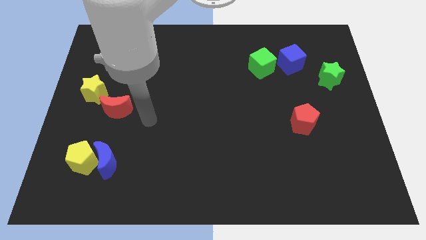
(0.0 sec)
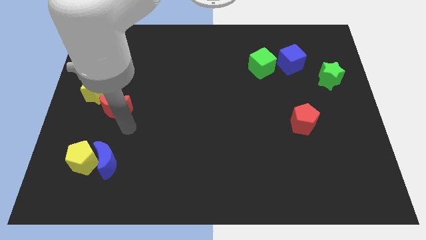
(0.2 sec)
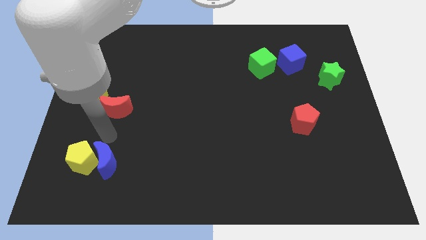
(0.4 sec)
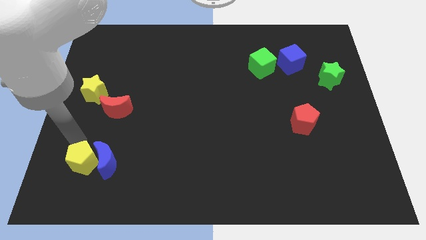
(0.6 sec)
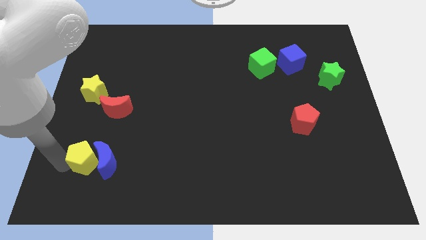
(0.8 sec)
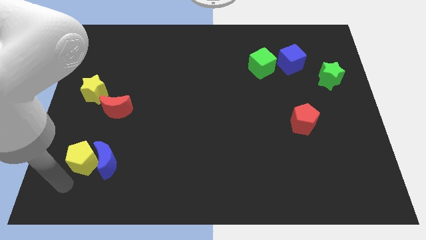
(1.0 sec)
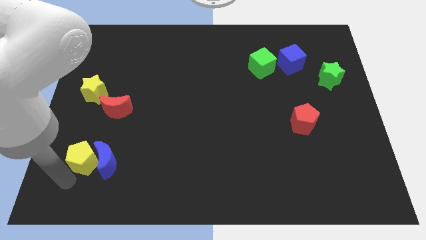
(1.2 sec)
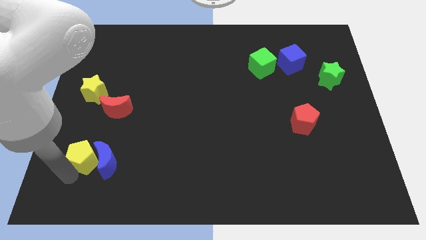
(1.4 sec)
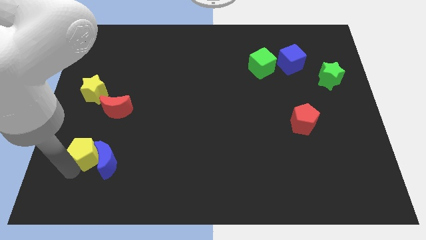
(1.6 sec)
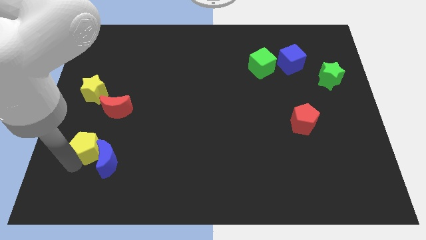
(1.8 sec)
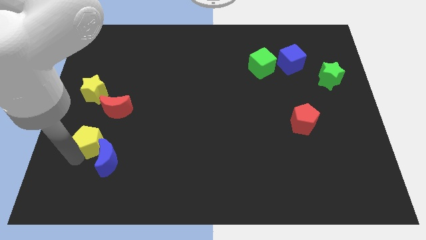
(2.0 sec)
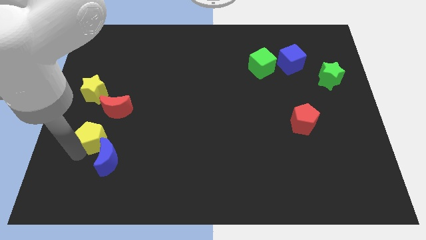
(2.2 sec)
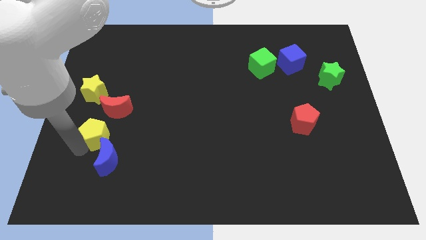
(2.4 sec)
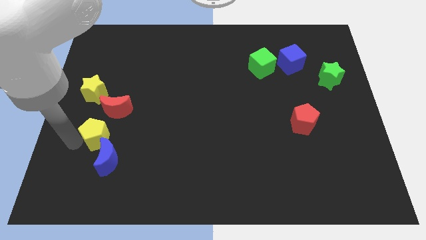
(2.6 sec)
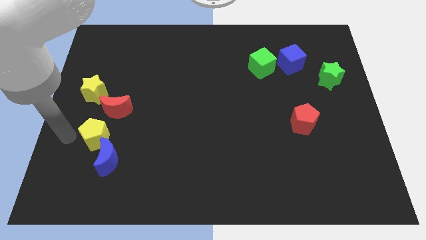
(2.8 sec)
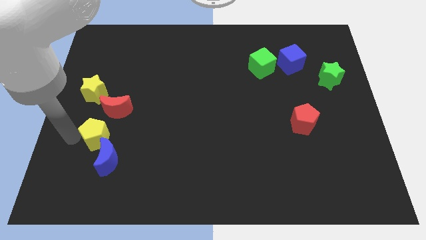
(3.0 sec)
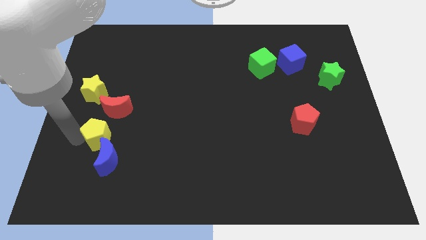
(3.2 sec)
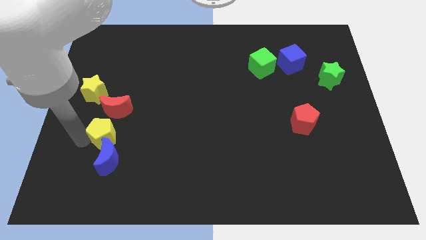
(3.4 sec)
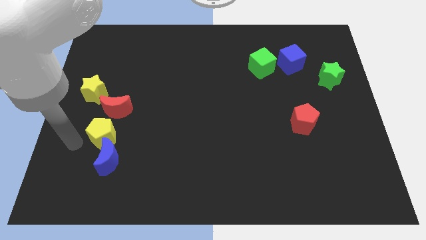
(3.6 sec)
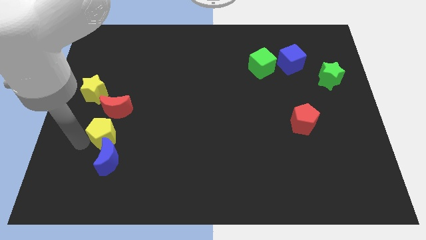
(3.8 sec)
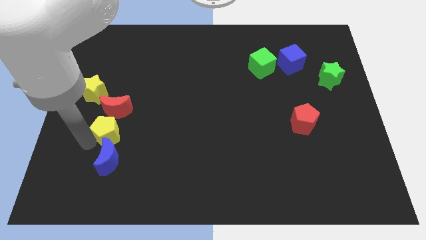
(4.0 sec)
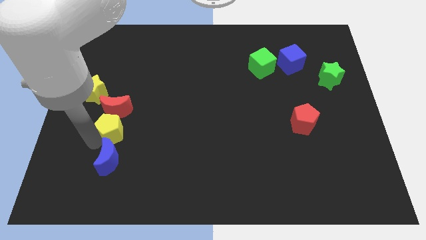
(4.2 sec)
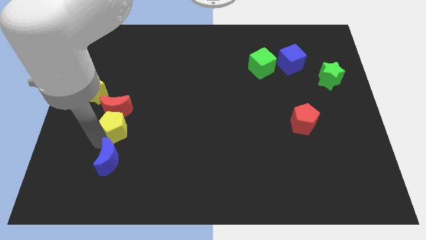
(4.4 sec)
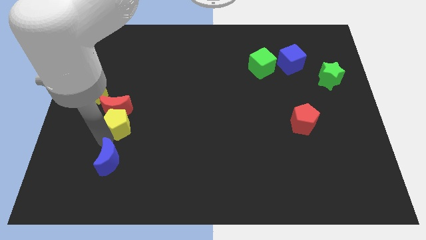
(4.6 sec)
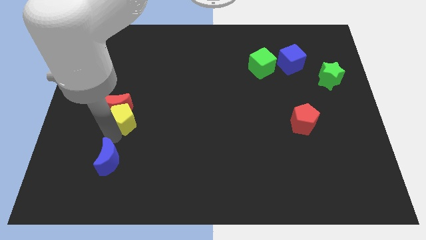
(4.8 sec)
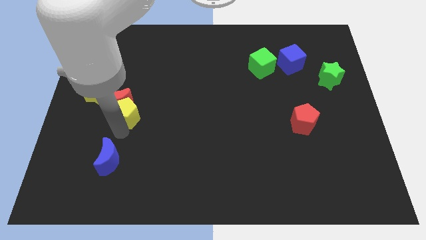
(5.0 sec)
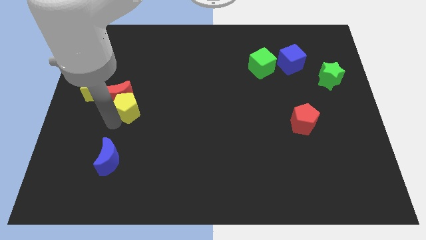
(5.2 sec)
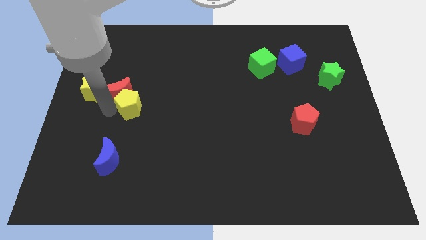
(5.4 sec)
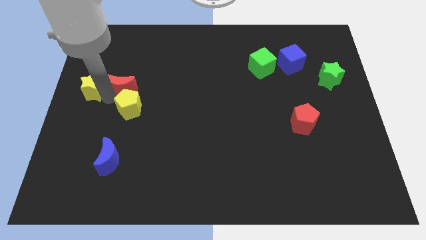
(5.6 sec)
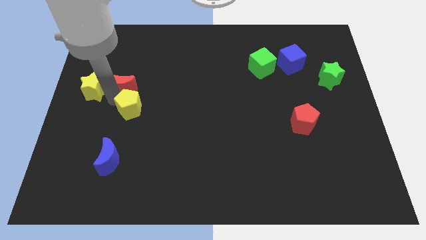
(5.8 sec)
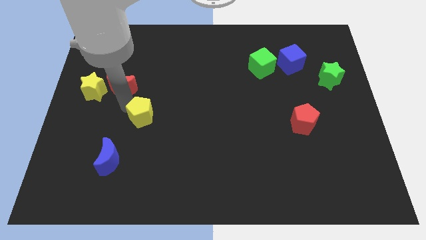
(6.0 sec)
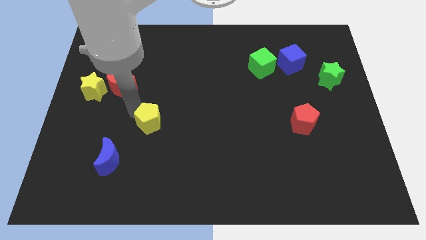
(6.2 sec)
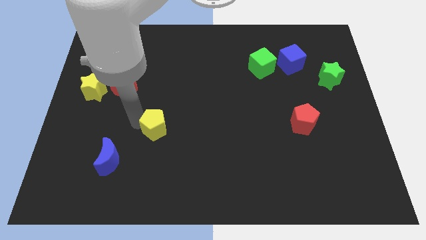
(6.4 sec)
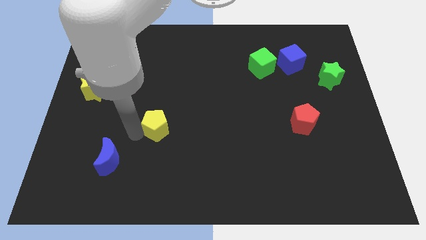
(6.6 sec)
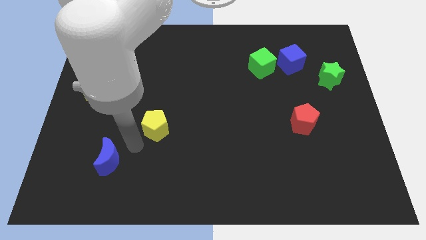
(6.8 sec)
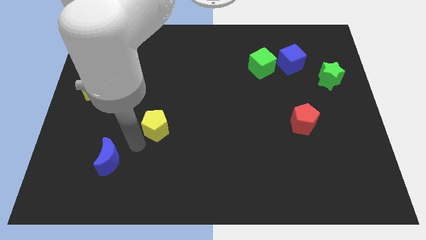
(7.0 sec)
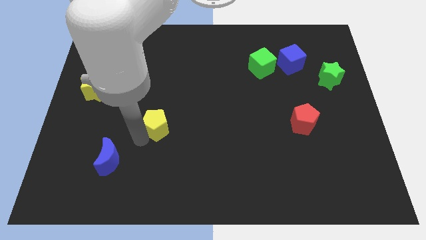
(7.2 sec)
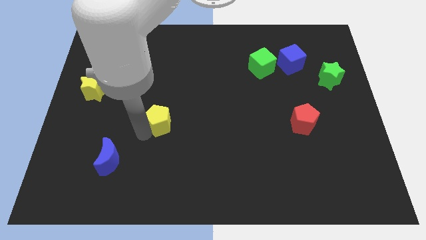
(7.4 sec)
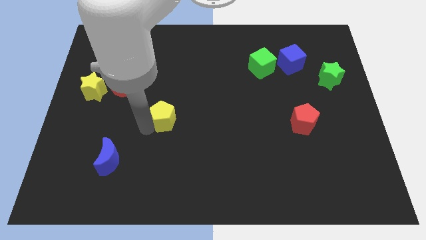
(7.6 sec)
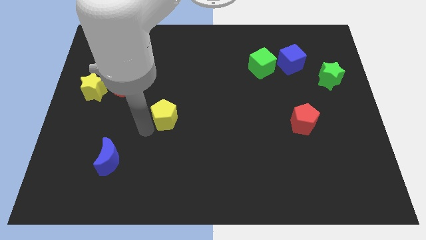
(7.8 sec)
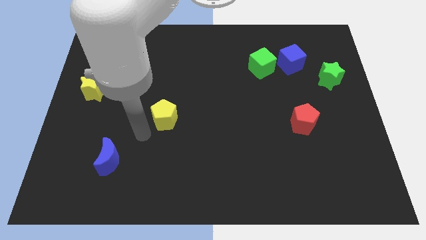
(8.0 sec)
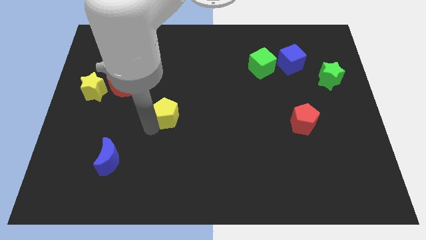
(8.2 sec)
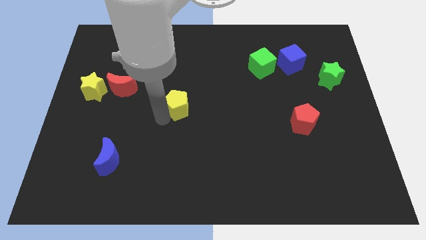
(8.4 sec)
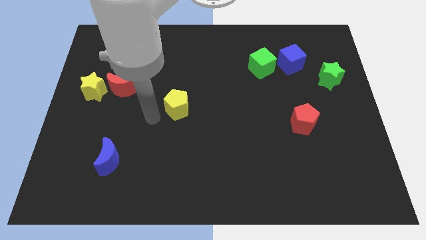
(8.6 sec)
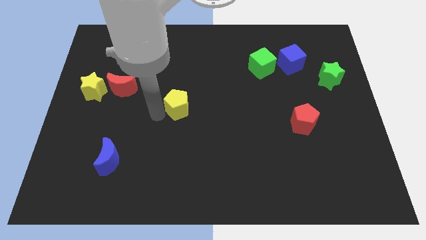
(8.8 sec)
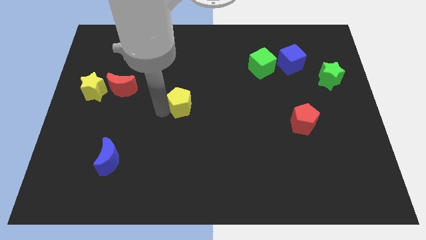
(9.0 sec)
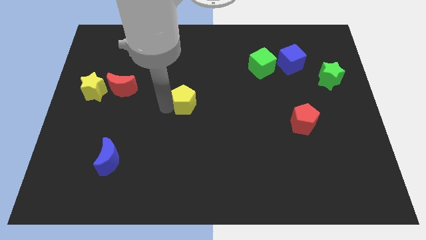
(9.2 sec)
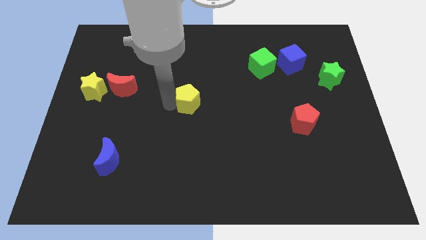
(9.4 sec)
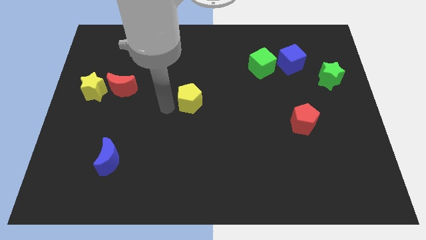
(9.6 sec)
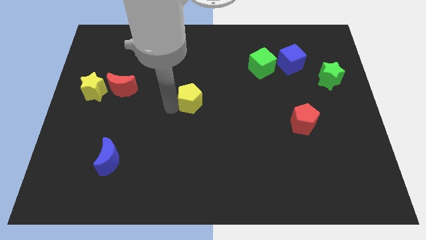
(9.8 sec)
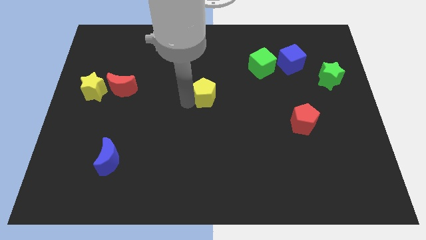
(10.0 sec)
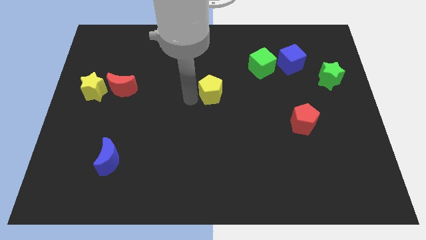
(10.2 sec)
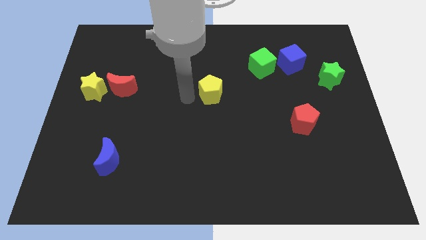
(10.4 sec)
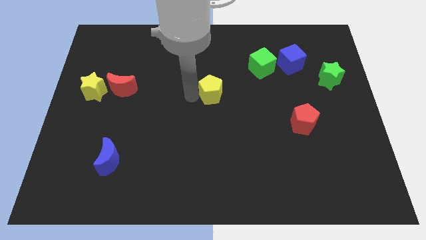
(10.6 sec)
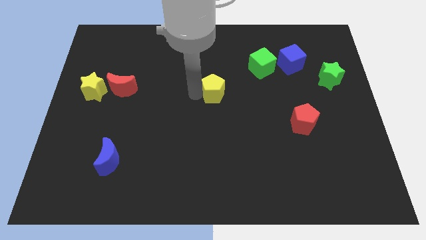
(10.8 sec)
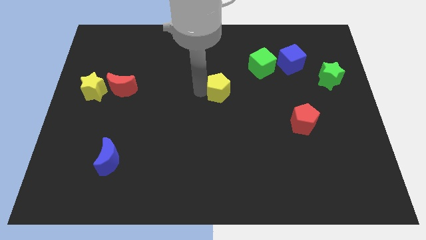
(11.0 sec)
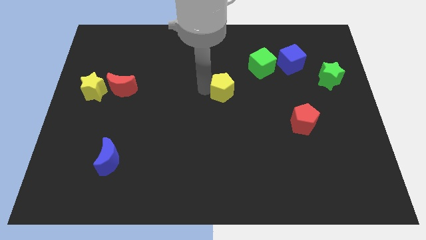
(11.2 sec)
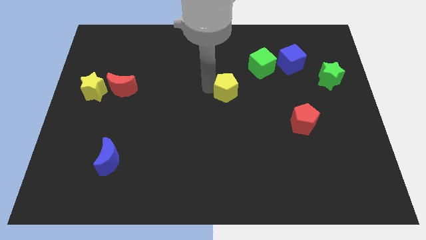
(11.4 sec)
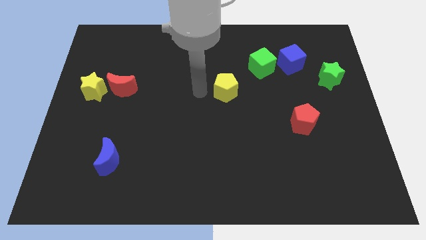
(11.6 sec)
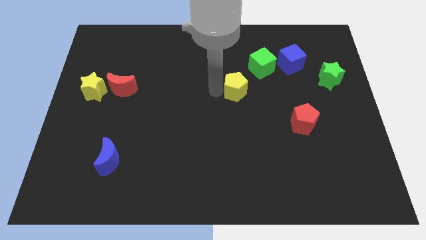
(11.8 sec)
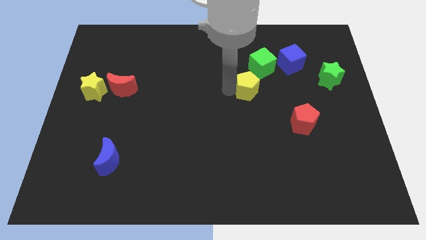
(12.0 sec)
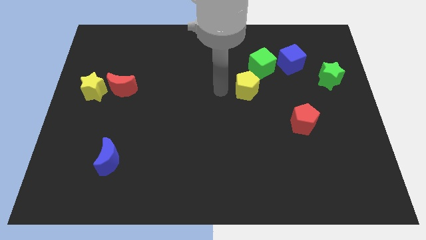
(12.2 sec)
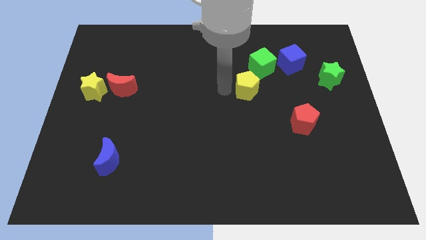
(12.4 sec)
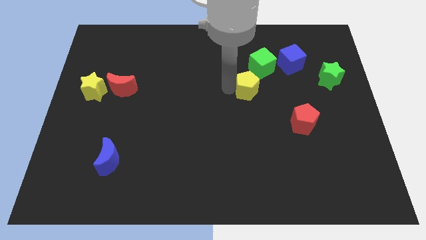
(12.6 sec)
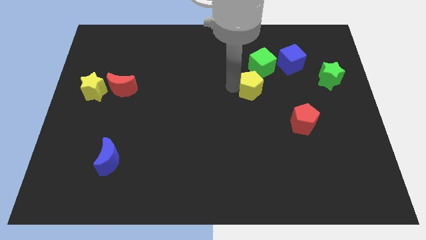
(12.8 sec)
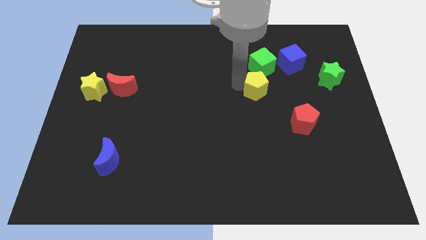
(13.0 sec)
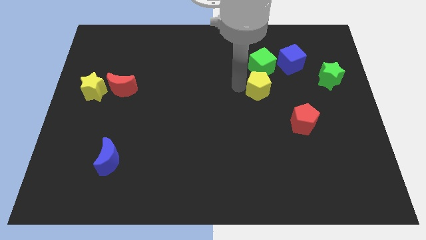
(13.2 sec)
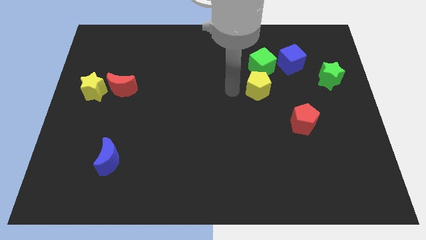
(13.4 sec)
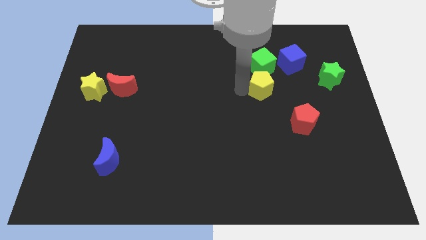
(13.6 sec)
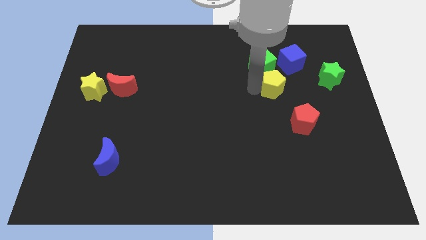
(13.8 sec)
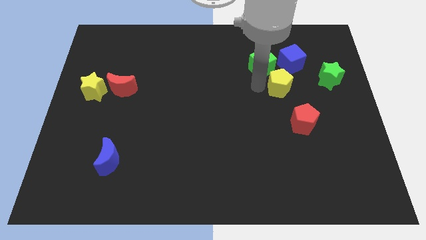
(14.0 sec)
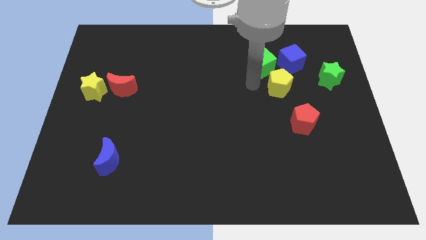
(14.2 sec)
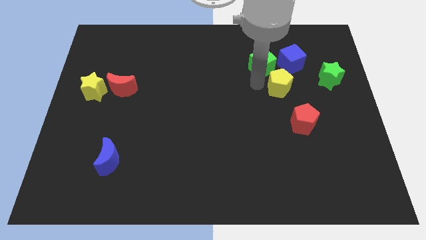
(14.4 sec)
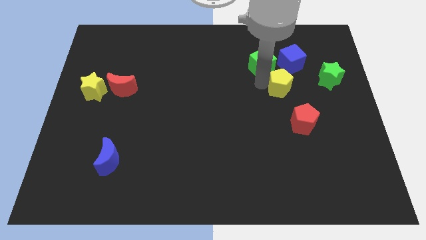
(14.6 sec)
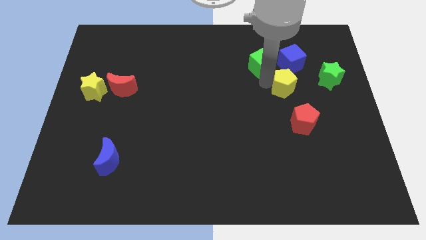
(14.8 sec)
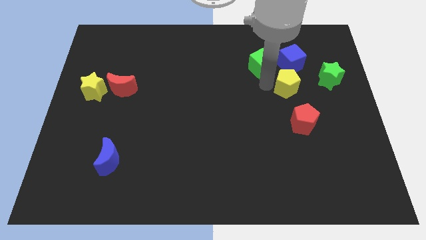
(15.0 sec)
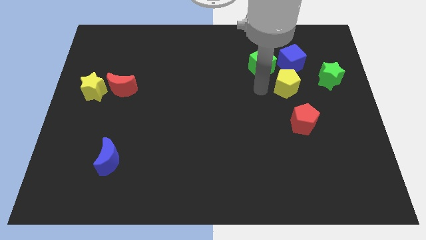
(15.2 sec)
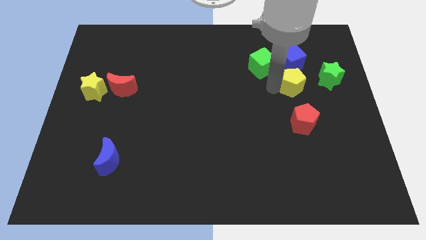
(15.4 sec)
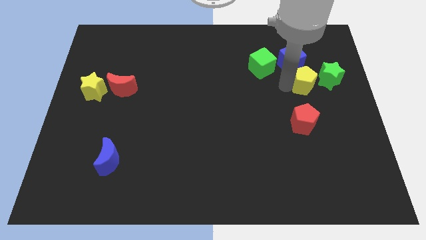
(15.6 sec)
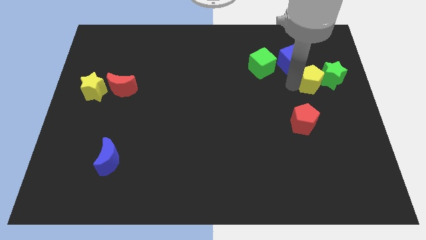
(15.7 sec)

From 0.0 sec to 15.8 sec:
put the yellow pentagon close to the green star
